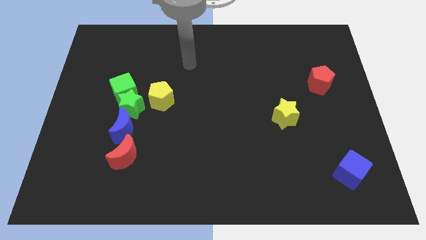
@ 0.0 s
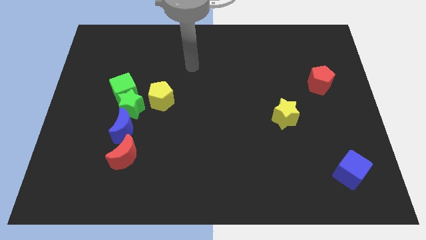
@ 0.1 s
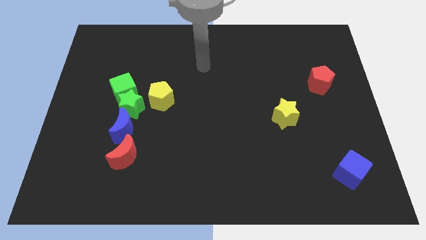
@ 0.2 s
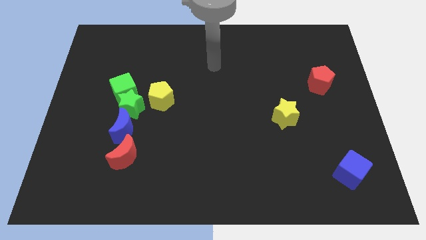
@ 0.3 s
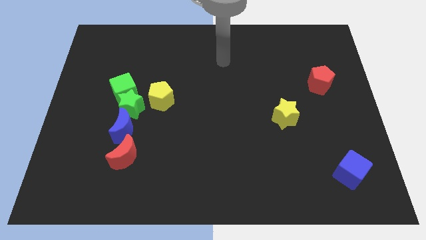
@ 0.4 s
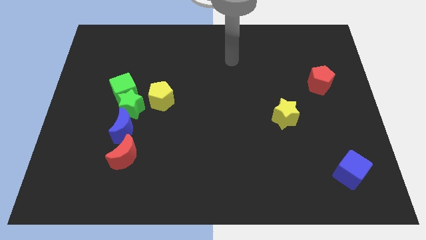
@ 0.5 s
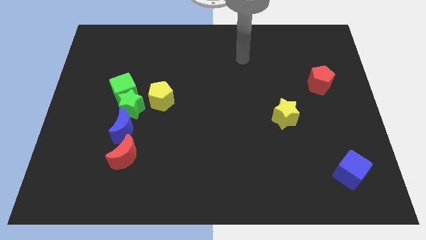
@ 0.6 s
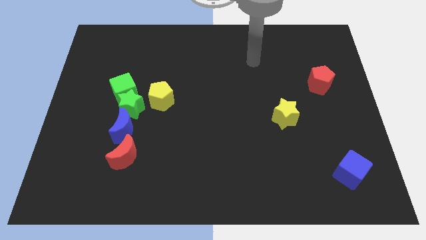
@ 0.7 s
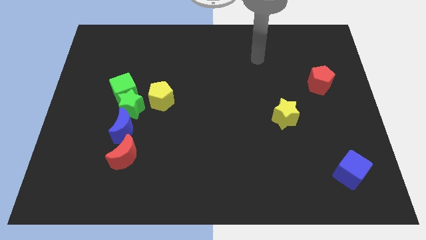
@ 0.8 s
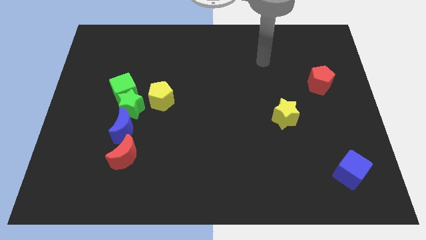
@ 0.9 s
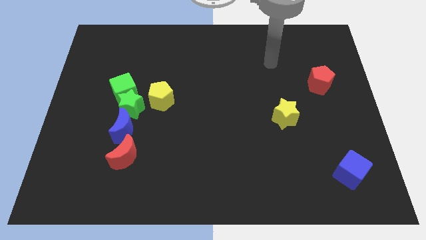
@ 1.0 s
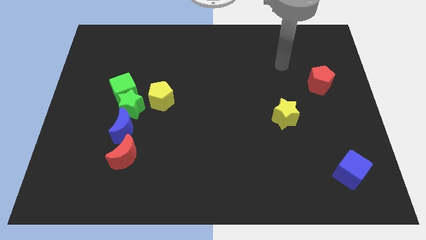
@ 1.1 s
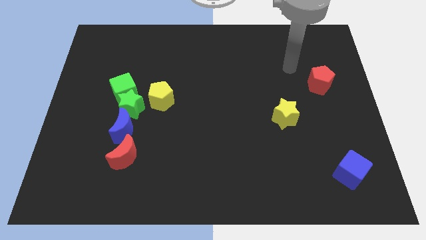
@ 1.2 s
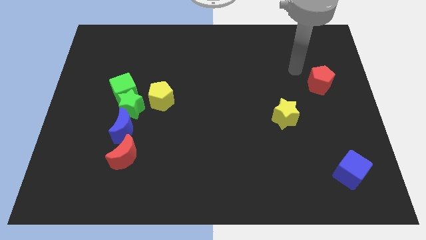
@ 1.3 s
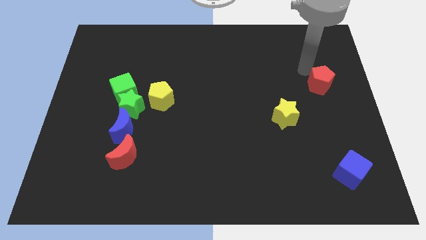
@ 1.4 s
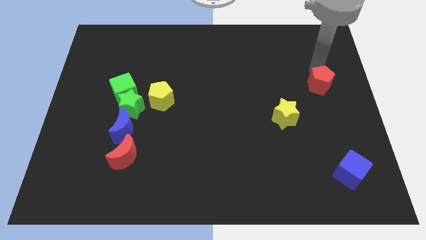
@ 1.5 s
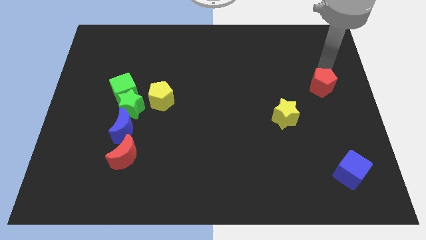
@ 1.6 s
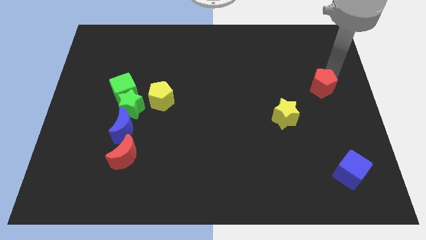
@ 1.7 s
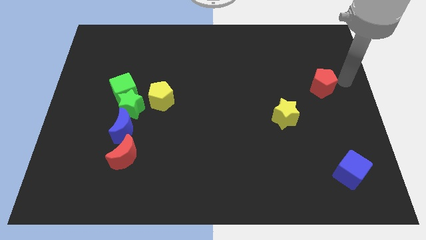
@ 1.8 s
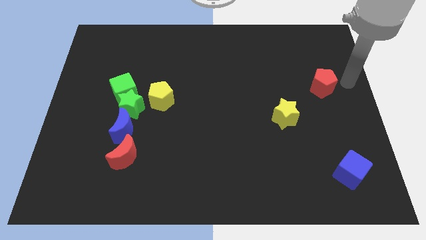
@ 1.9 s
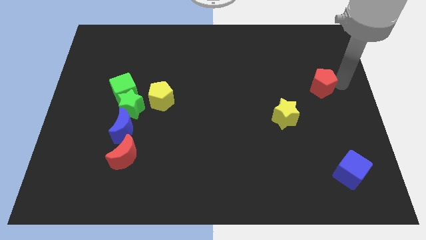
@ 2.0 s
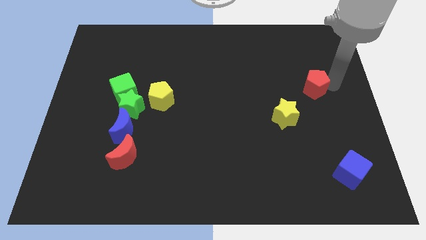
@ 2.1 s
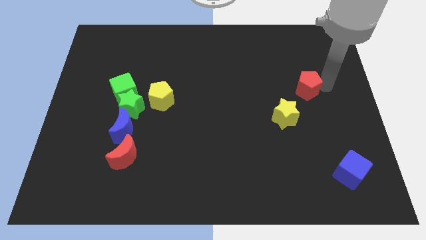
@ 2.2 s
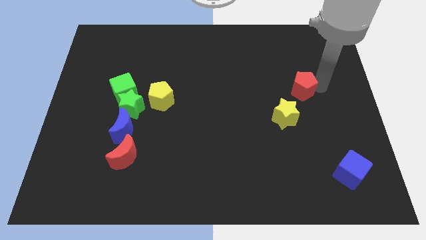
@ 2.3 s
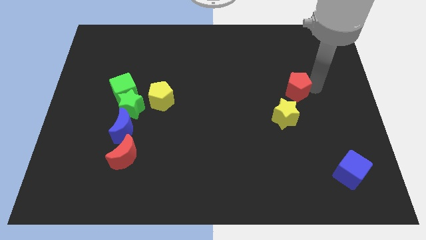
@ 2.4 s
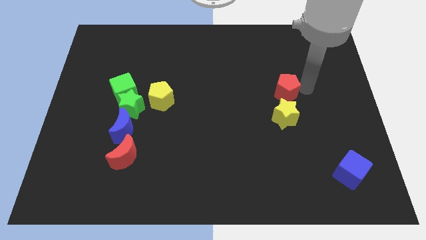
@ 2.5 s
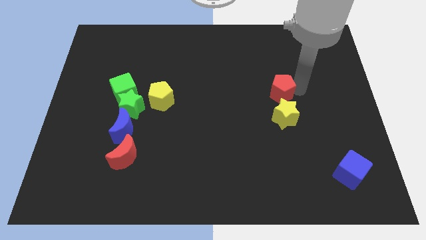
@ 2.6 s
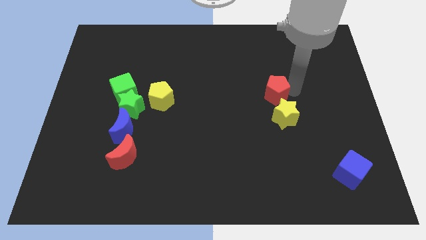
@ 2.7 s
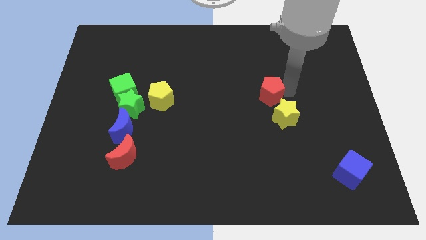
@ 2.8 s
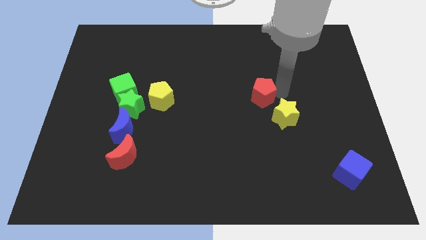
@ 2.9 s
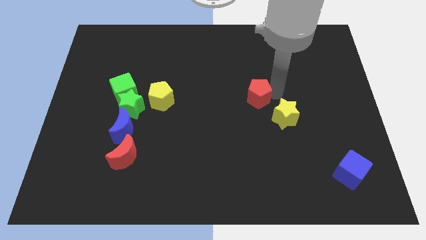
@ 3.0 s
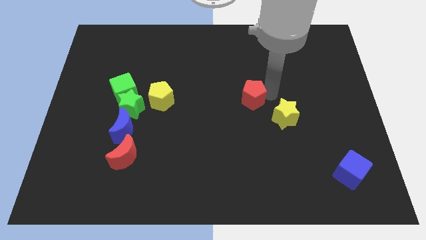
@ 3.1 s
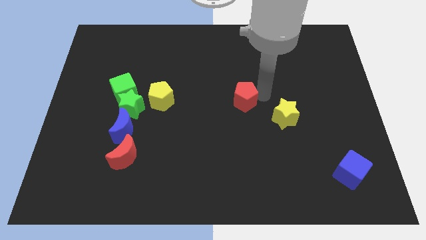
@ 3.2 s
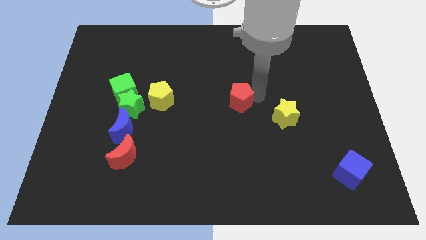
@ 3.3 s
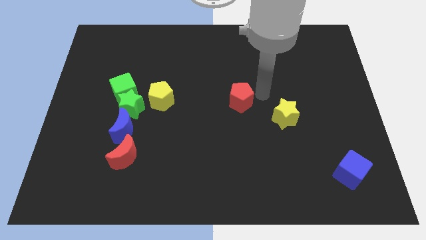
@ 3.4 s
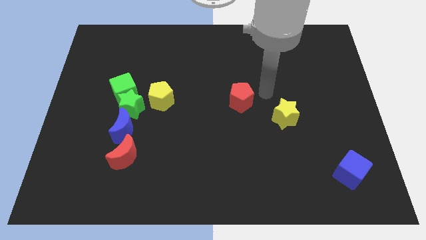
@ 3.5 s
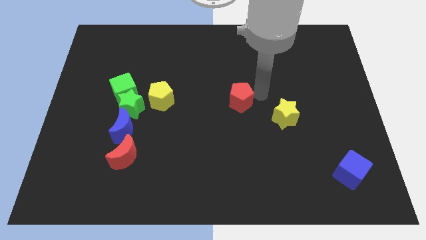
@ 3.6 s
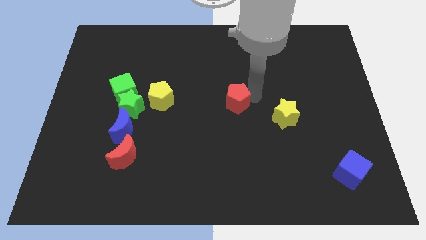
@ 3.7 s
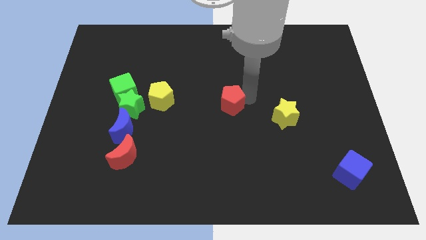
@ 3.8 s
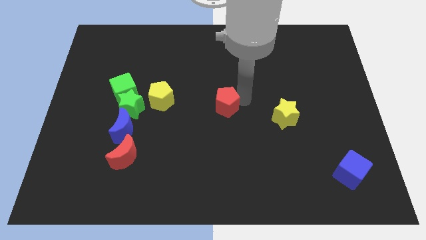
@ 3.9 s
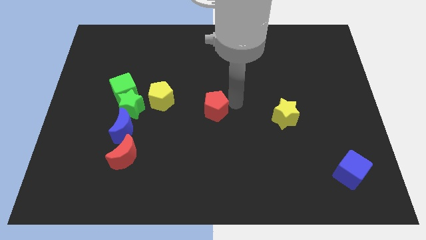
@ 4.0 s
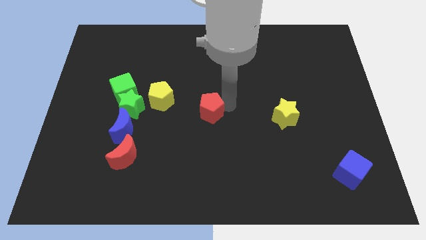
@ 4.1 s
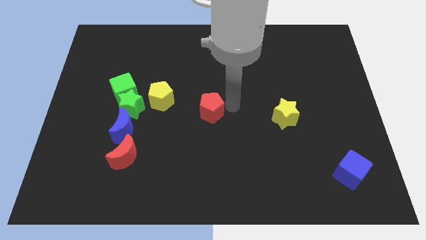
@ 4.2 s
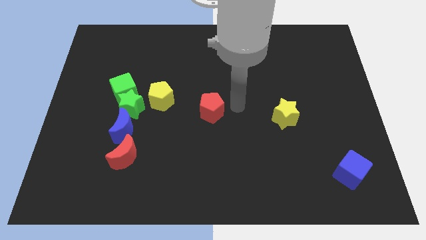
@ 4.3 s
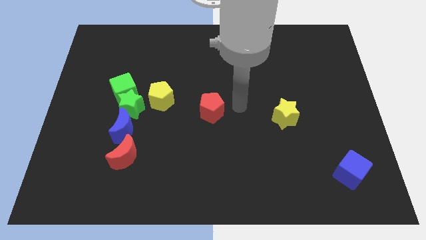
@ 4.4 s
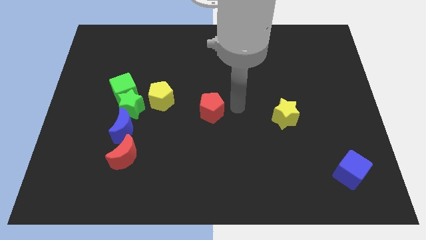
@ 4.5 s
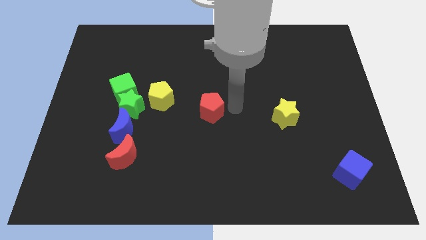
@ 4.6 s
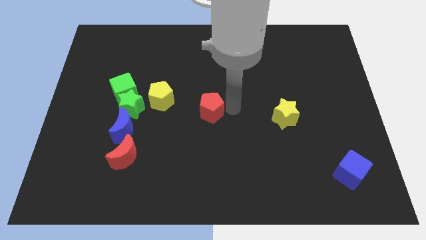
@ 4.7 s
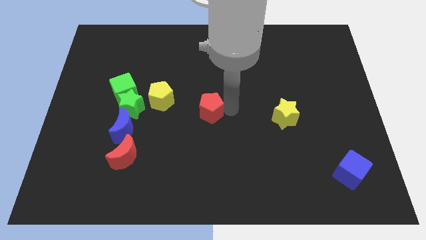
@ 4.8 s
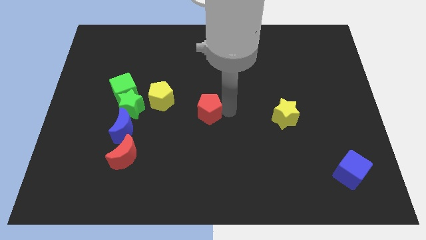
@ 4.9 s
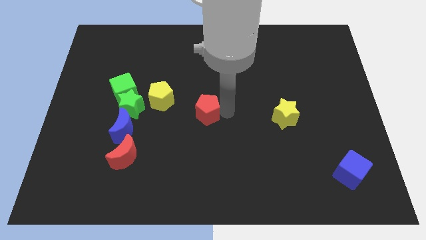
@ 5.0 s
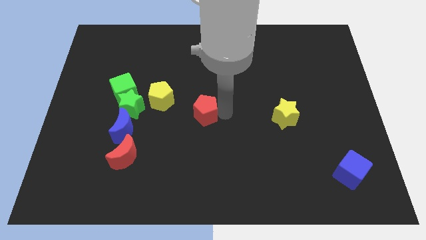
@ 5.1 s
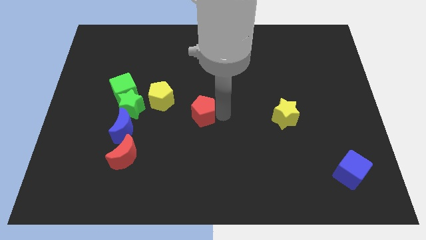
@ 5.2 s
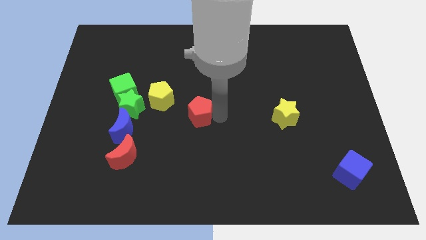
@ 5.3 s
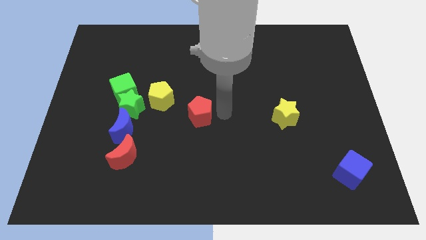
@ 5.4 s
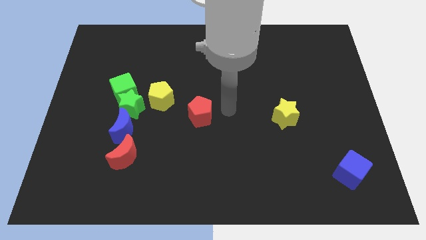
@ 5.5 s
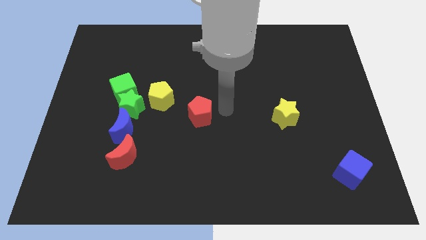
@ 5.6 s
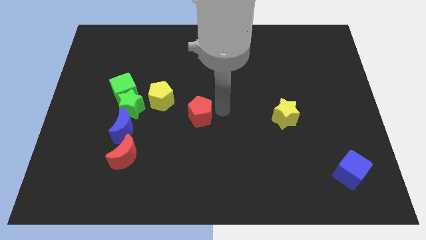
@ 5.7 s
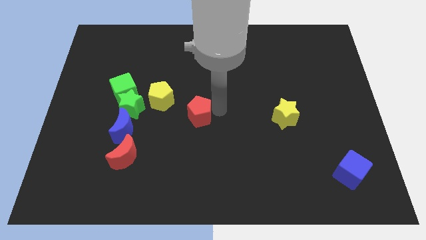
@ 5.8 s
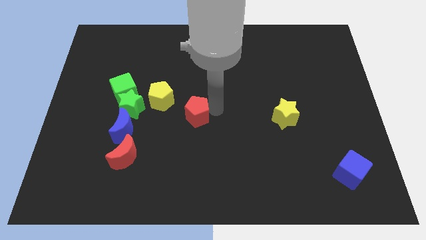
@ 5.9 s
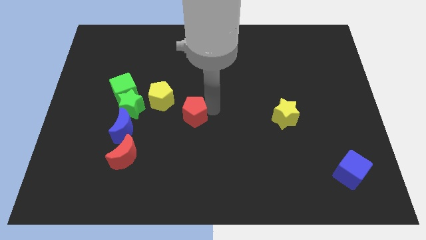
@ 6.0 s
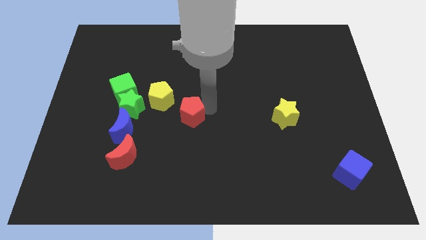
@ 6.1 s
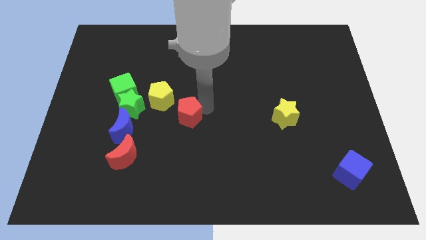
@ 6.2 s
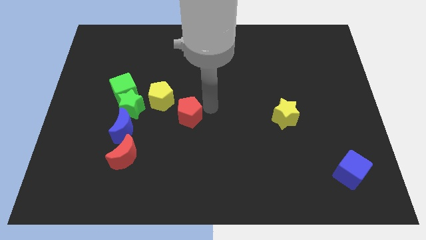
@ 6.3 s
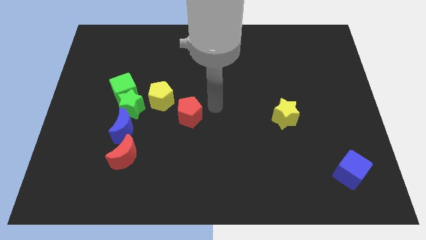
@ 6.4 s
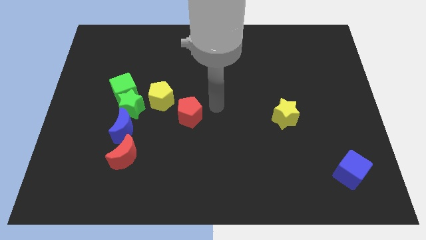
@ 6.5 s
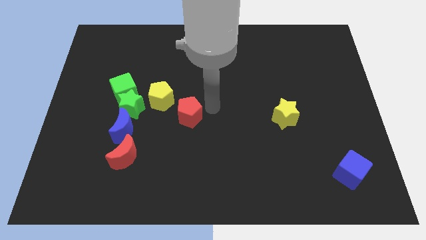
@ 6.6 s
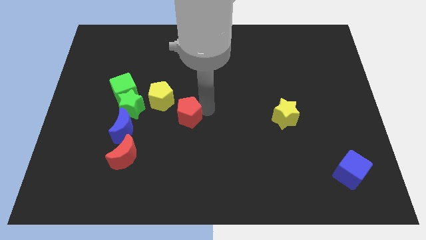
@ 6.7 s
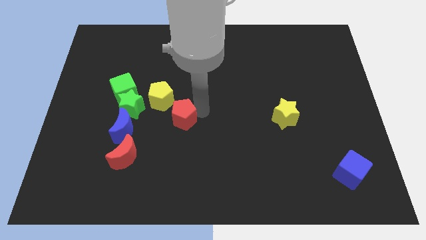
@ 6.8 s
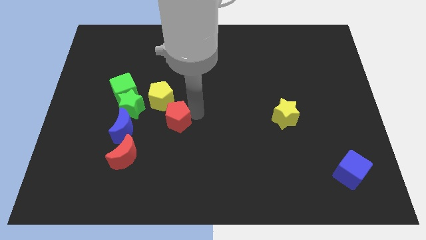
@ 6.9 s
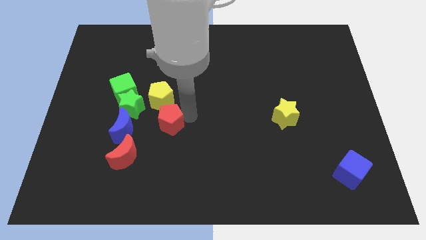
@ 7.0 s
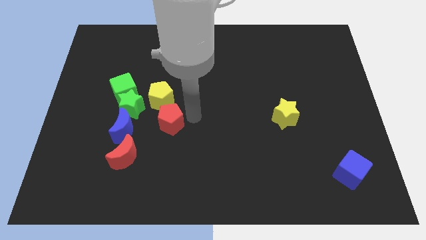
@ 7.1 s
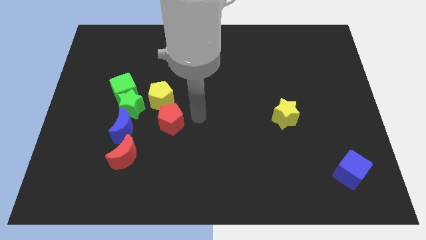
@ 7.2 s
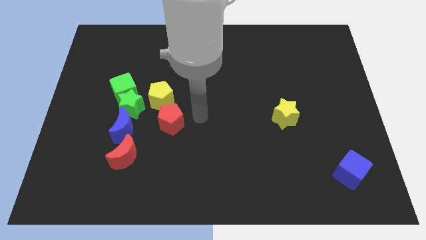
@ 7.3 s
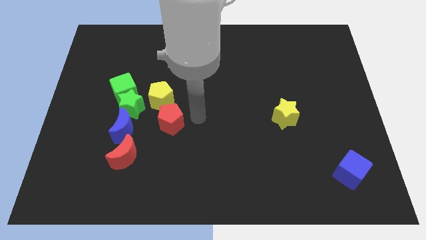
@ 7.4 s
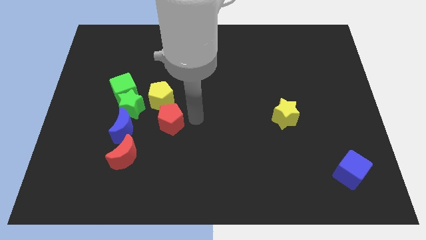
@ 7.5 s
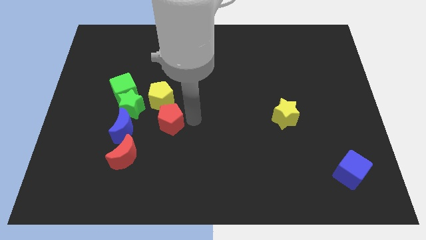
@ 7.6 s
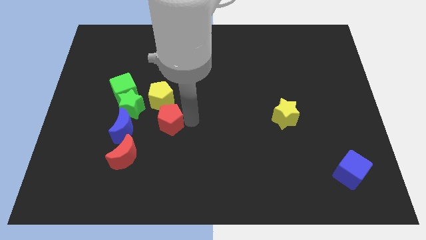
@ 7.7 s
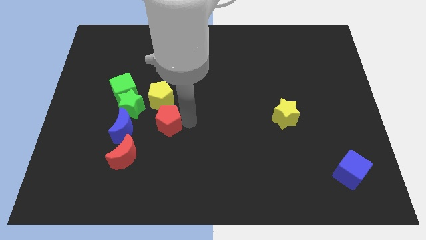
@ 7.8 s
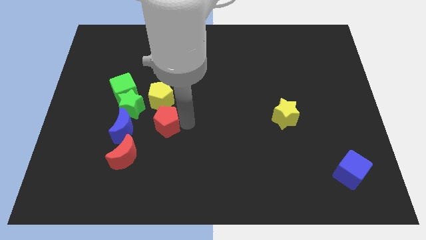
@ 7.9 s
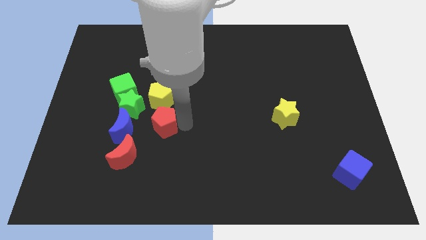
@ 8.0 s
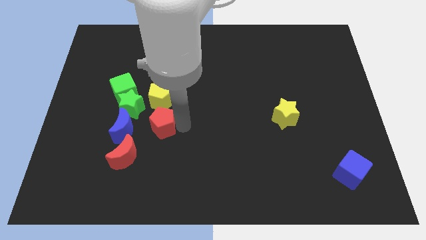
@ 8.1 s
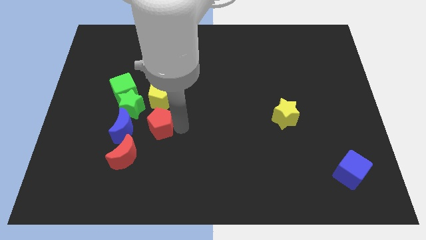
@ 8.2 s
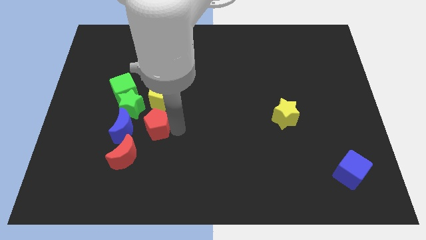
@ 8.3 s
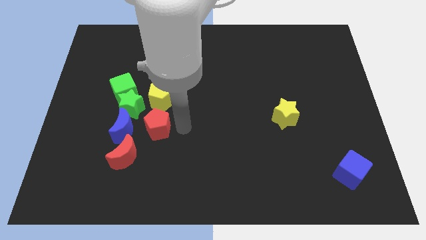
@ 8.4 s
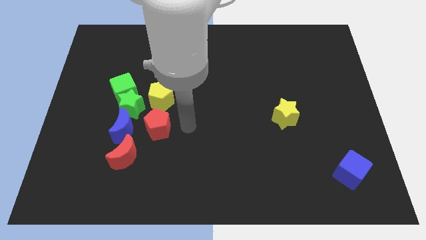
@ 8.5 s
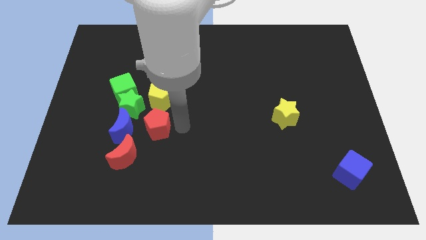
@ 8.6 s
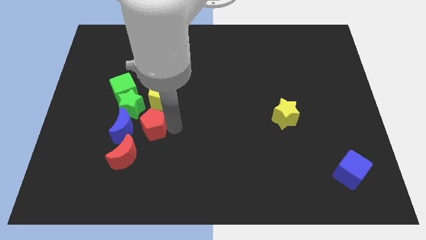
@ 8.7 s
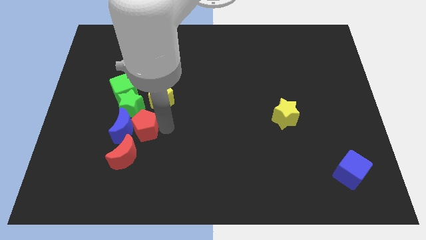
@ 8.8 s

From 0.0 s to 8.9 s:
push the red pentagon close to the blue moon
